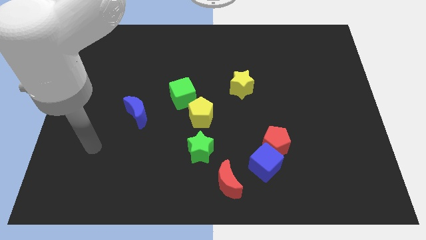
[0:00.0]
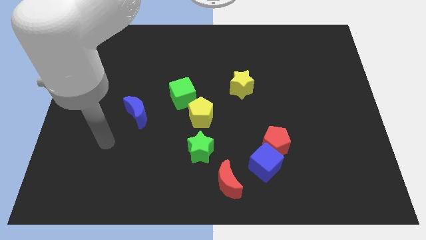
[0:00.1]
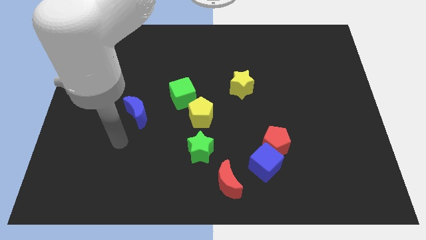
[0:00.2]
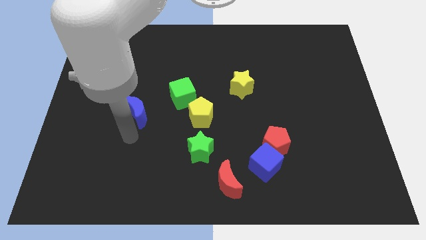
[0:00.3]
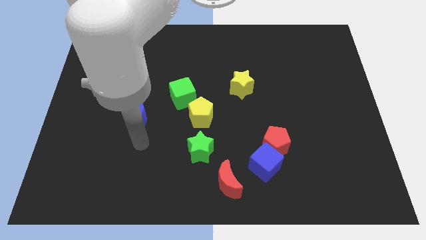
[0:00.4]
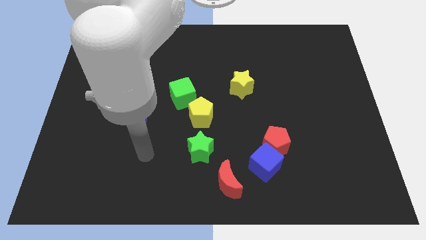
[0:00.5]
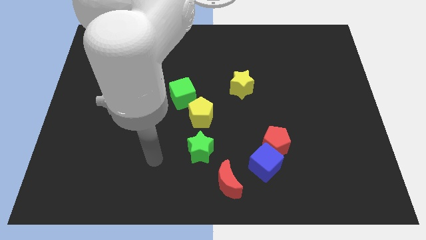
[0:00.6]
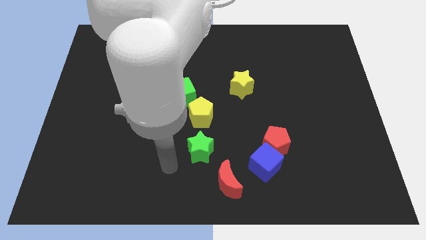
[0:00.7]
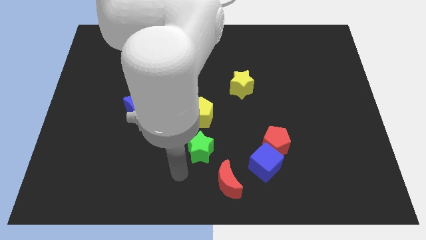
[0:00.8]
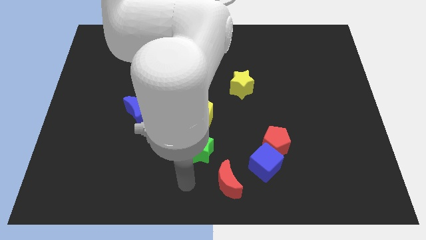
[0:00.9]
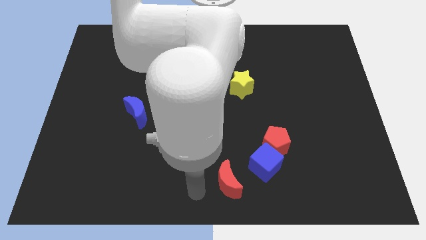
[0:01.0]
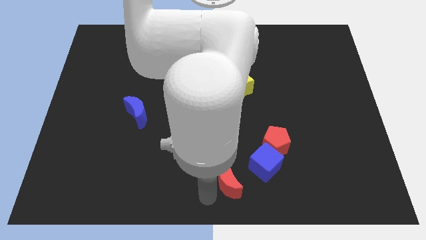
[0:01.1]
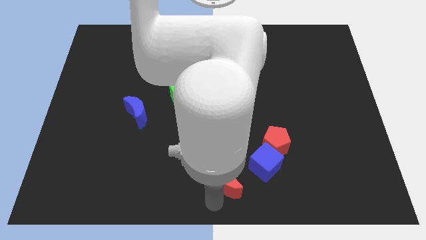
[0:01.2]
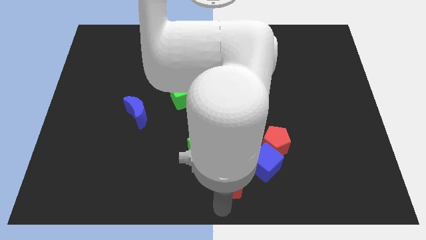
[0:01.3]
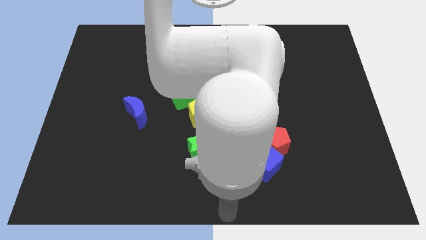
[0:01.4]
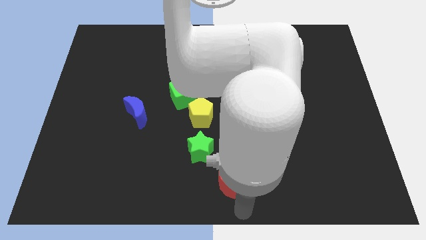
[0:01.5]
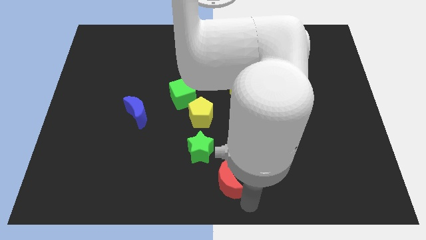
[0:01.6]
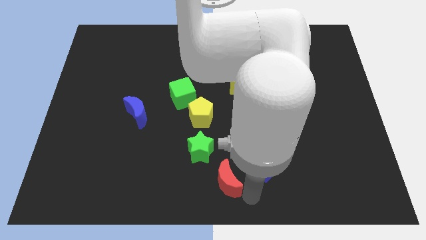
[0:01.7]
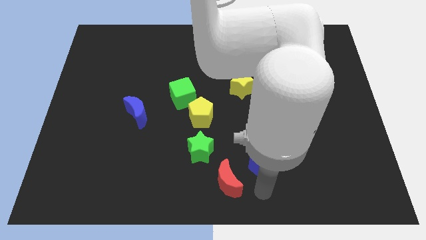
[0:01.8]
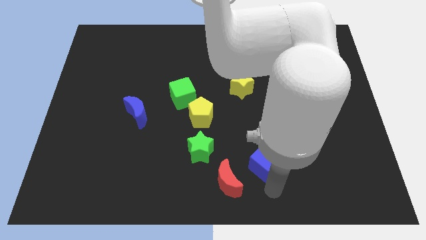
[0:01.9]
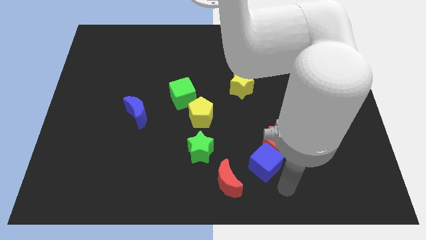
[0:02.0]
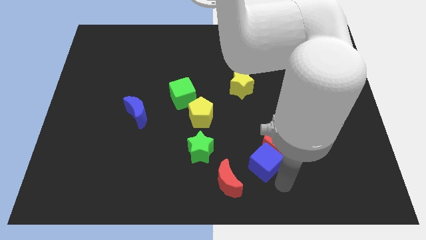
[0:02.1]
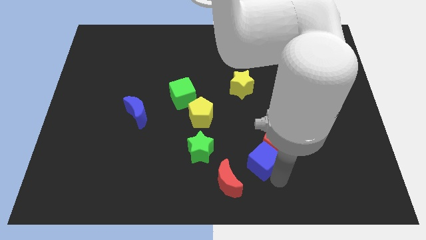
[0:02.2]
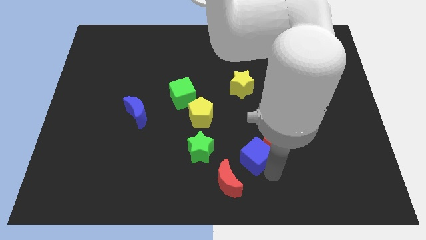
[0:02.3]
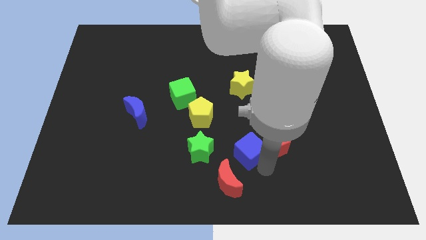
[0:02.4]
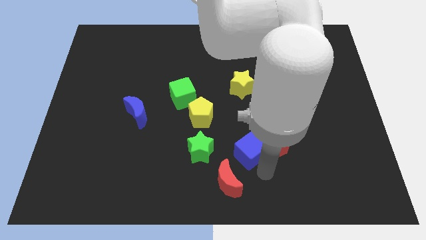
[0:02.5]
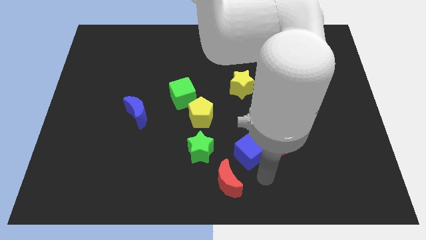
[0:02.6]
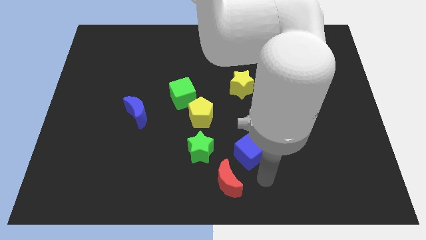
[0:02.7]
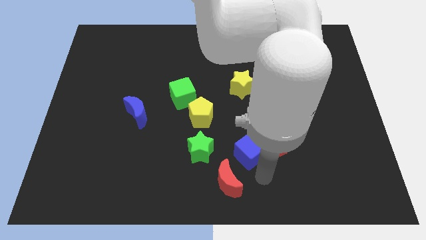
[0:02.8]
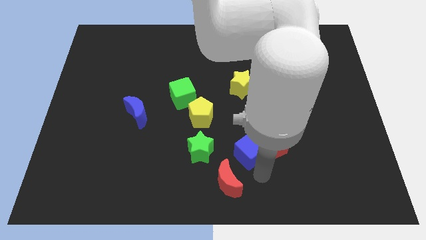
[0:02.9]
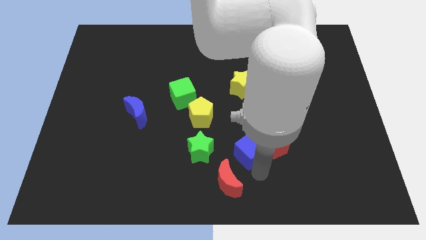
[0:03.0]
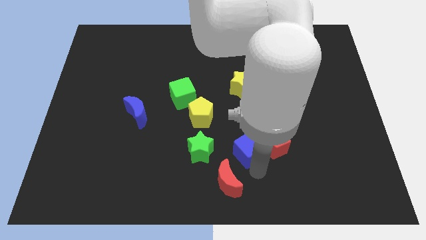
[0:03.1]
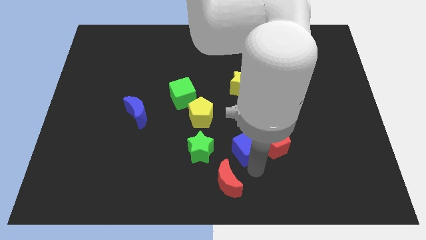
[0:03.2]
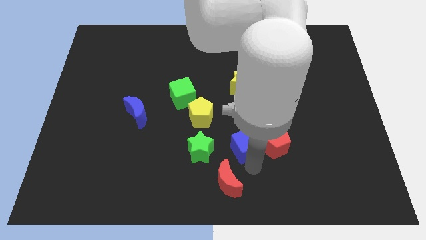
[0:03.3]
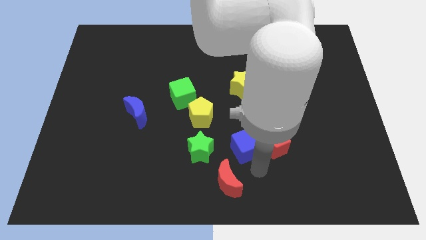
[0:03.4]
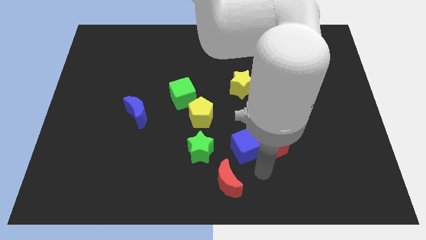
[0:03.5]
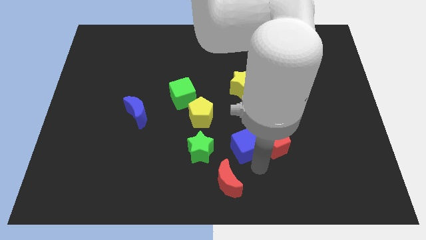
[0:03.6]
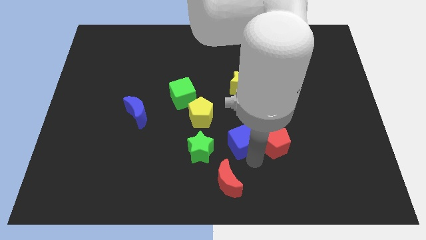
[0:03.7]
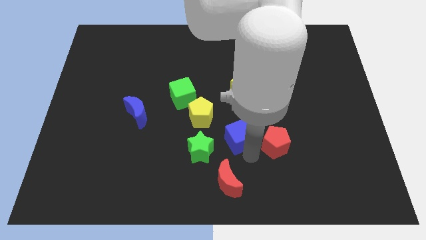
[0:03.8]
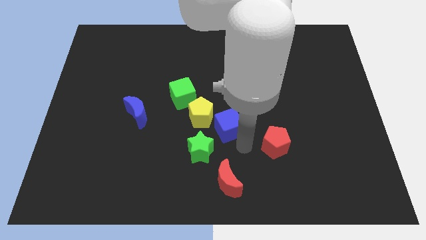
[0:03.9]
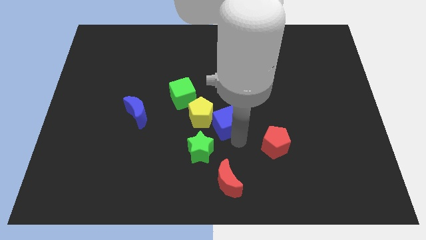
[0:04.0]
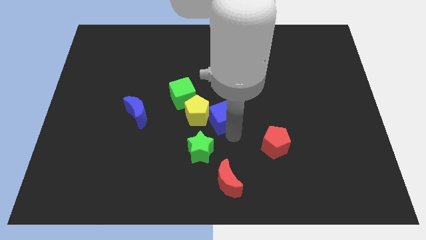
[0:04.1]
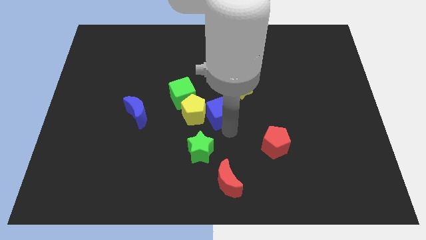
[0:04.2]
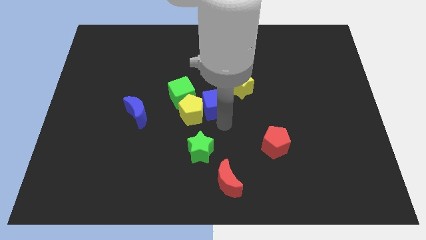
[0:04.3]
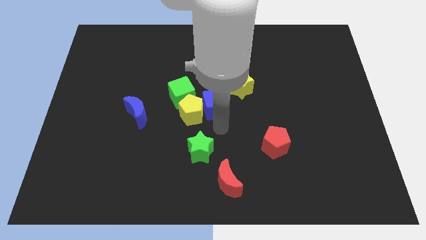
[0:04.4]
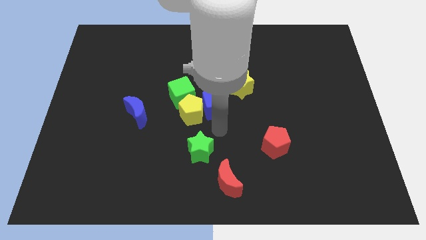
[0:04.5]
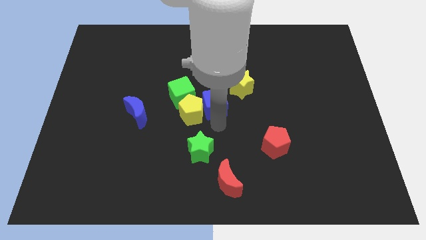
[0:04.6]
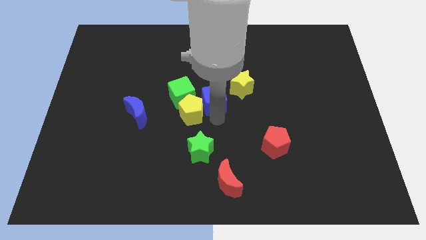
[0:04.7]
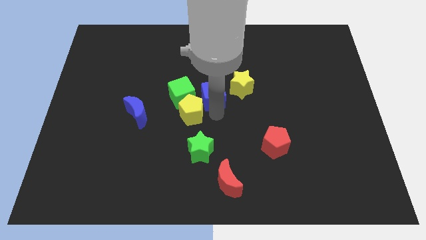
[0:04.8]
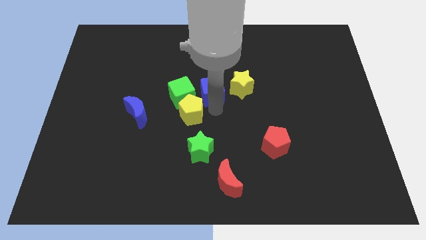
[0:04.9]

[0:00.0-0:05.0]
move the blue cube diagonally up and to the left

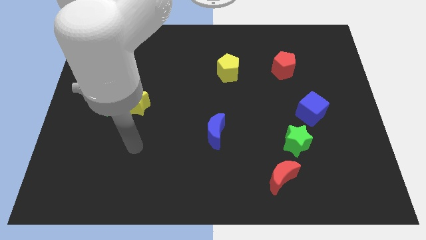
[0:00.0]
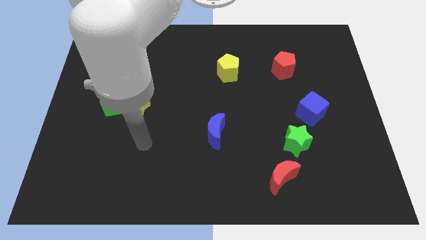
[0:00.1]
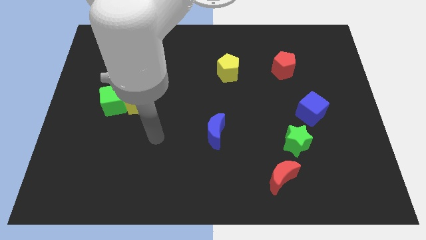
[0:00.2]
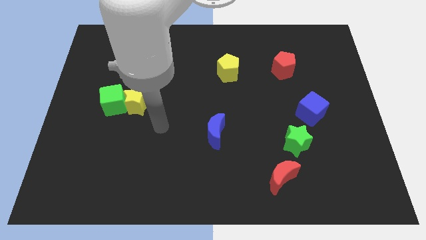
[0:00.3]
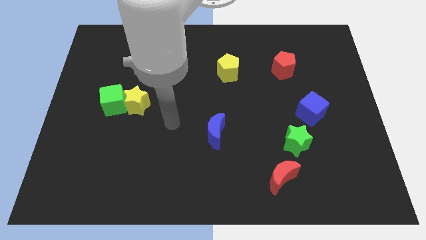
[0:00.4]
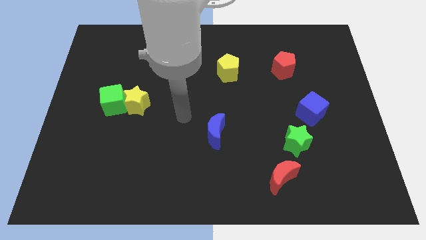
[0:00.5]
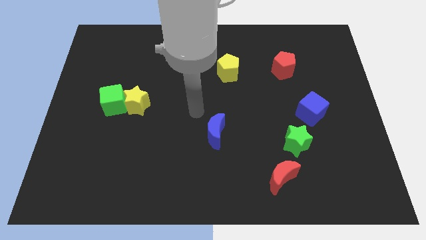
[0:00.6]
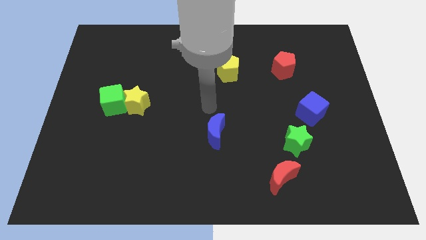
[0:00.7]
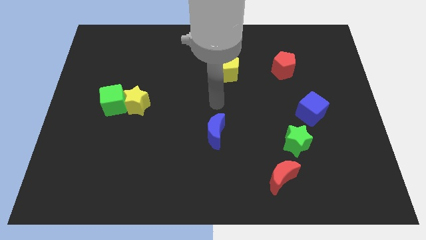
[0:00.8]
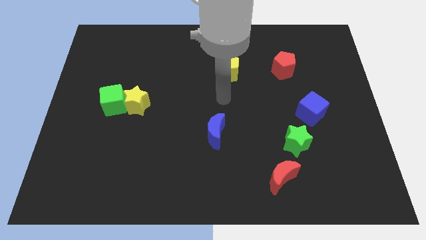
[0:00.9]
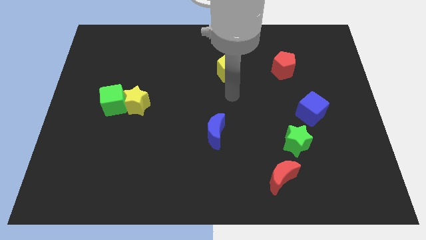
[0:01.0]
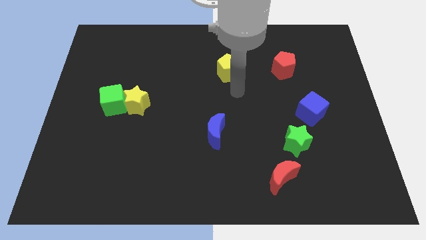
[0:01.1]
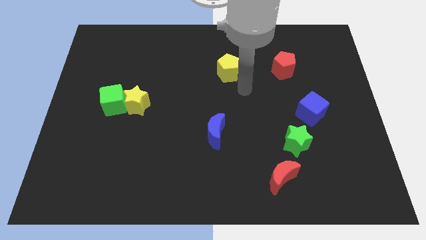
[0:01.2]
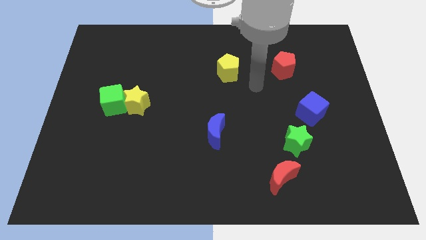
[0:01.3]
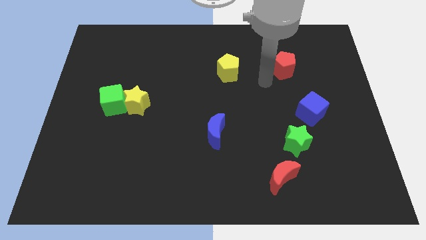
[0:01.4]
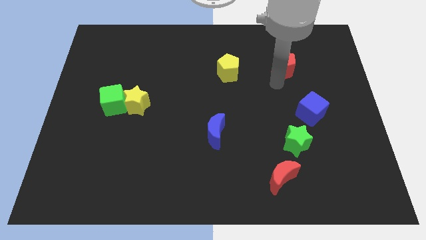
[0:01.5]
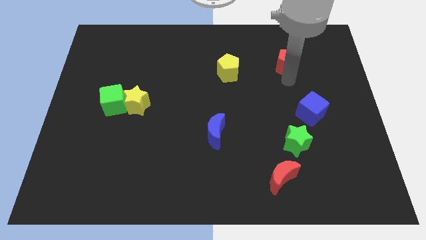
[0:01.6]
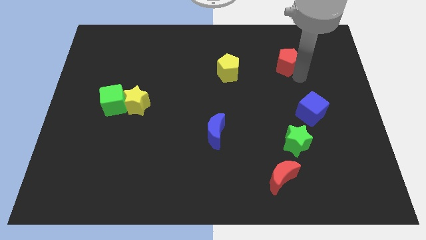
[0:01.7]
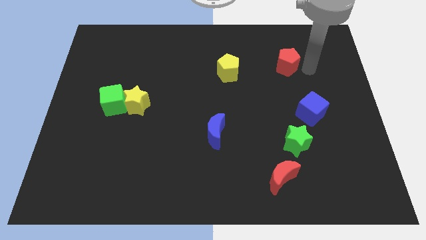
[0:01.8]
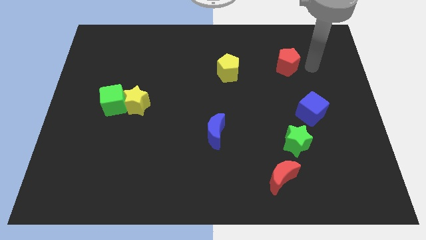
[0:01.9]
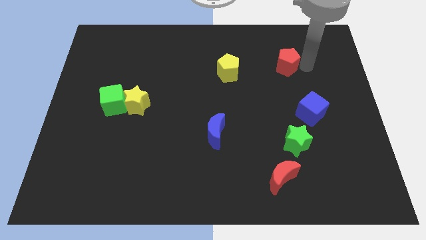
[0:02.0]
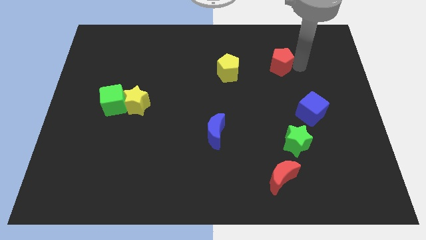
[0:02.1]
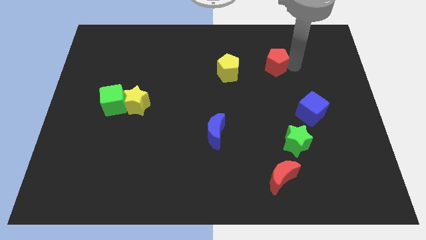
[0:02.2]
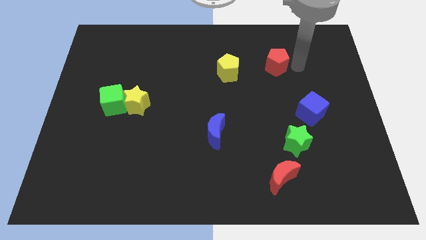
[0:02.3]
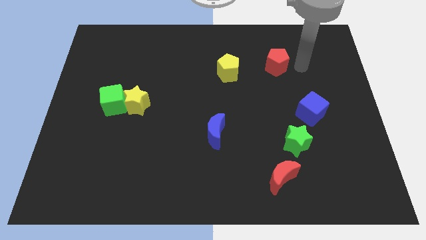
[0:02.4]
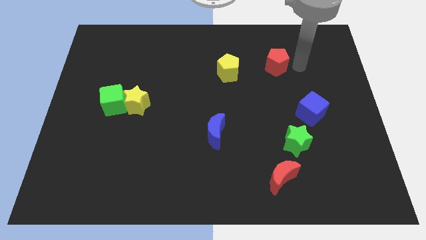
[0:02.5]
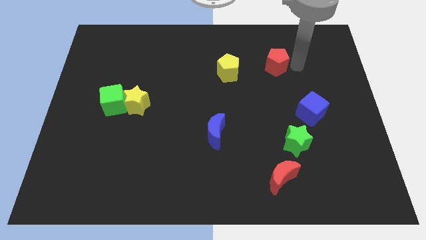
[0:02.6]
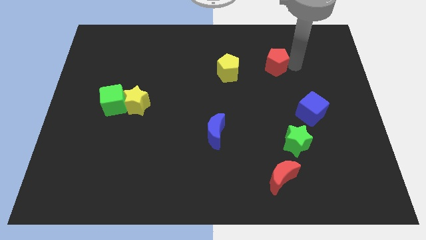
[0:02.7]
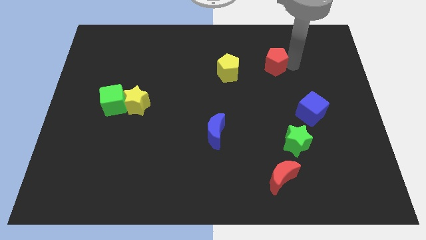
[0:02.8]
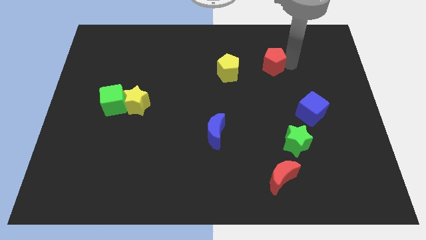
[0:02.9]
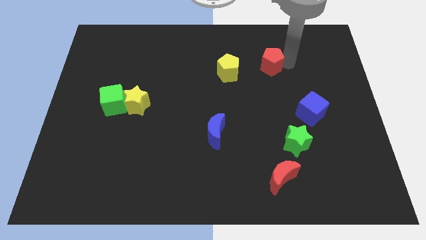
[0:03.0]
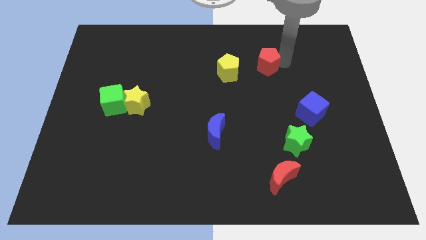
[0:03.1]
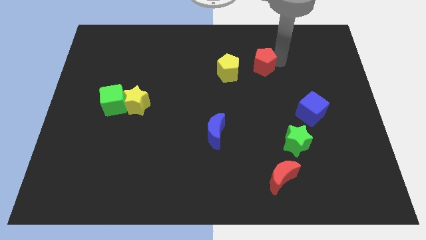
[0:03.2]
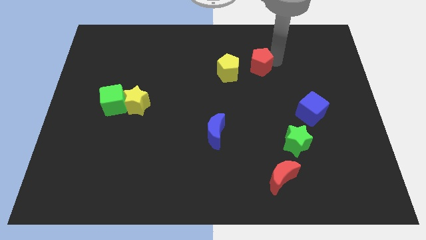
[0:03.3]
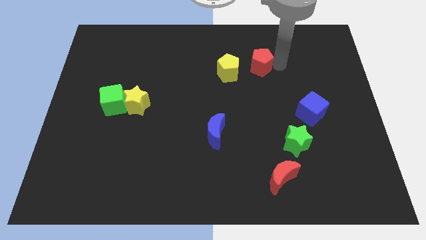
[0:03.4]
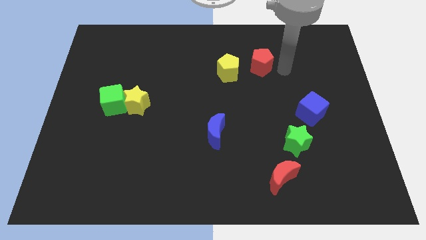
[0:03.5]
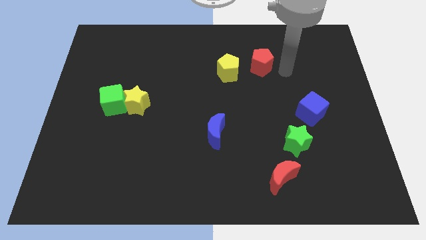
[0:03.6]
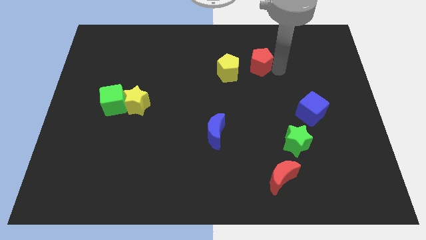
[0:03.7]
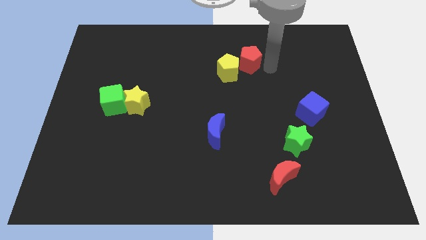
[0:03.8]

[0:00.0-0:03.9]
move the red pentagon somewhat left
